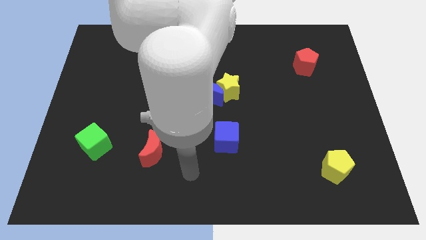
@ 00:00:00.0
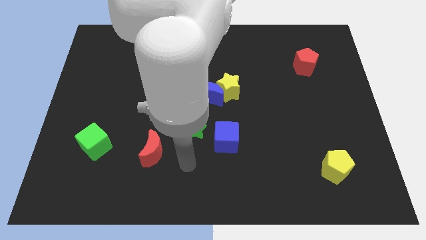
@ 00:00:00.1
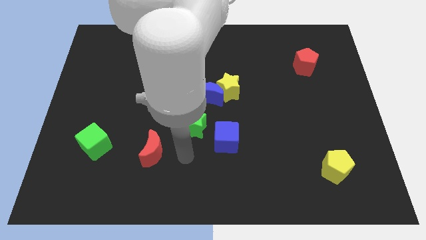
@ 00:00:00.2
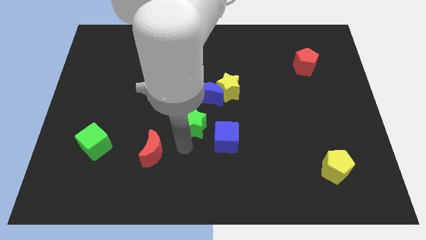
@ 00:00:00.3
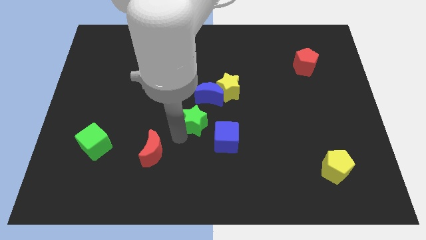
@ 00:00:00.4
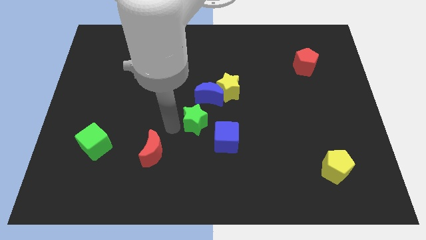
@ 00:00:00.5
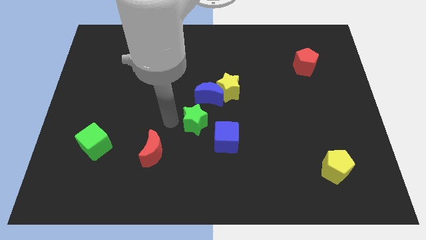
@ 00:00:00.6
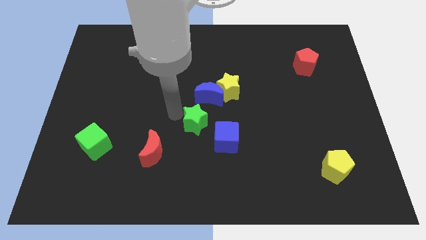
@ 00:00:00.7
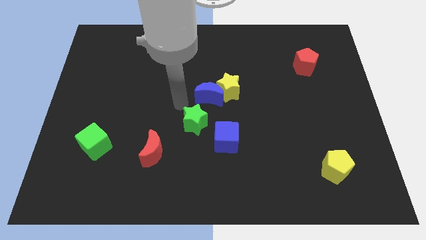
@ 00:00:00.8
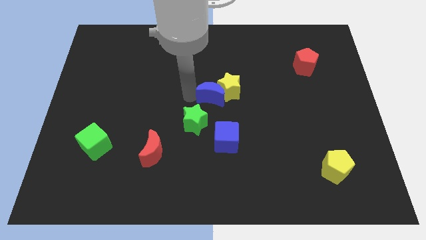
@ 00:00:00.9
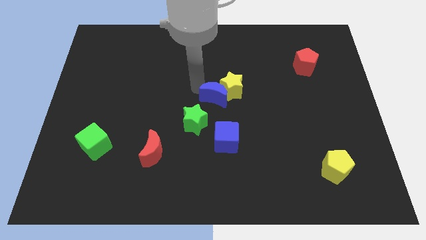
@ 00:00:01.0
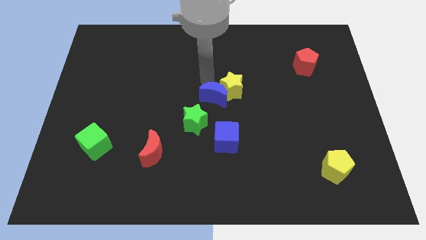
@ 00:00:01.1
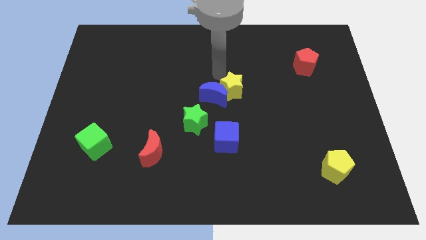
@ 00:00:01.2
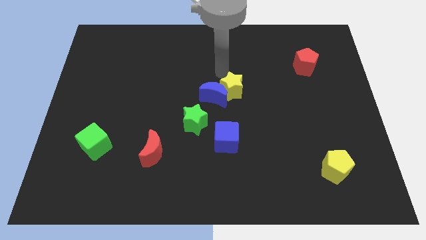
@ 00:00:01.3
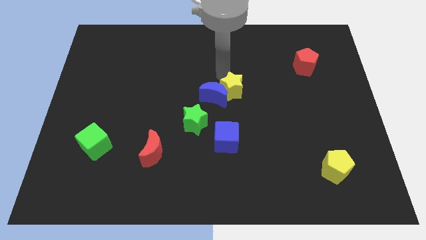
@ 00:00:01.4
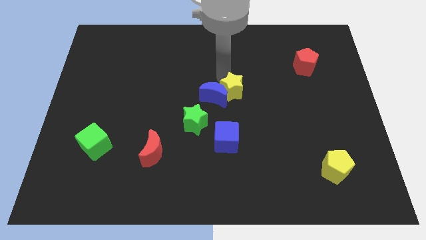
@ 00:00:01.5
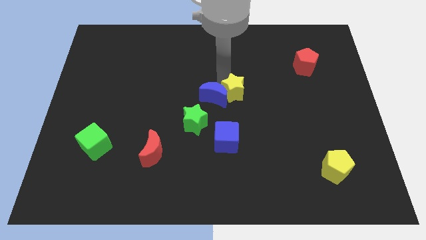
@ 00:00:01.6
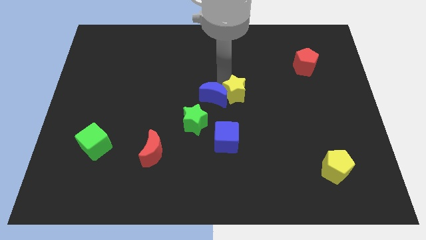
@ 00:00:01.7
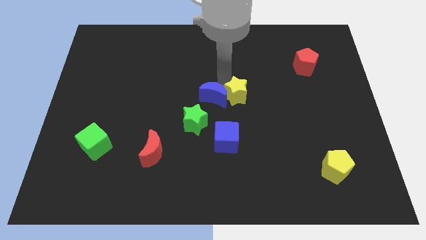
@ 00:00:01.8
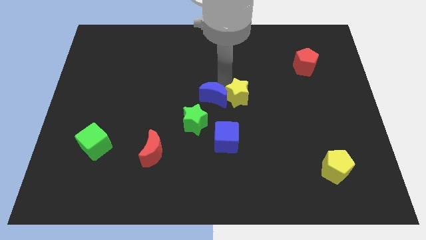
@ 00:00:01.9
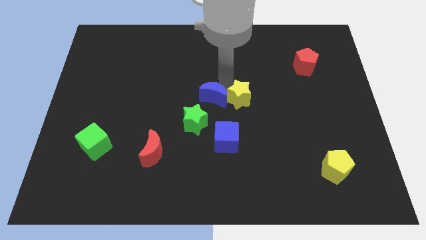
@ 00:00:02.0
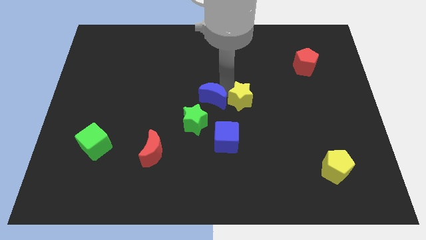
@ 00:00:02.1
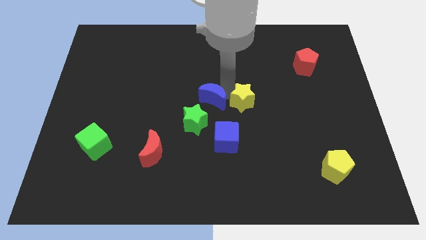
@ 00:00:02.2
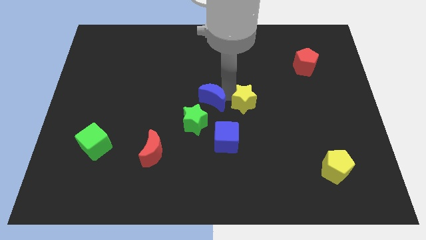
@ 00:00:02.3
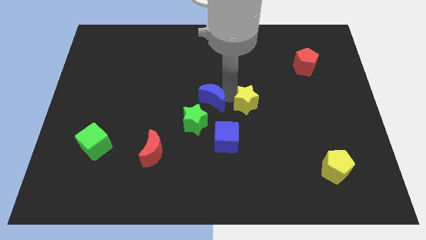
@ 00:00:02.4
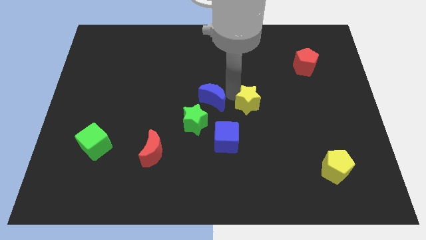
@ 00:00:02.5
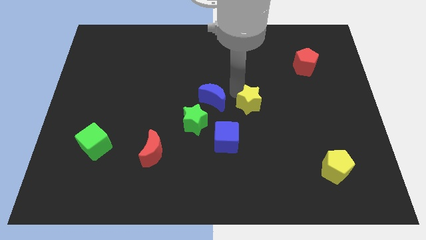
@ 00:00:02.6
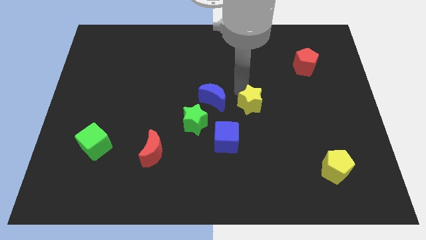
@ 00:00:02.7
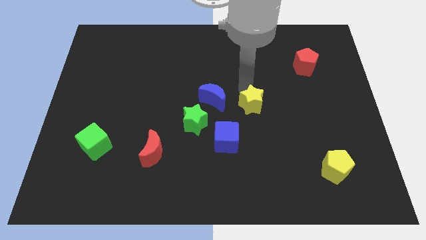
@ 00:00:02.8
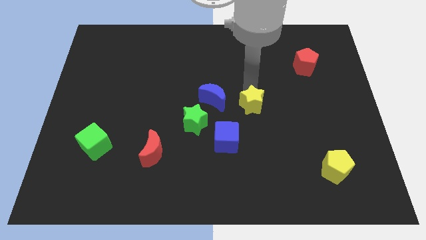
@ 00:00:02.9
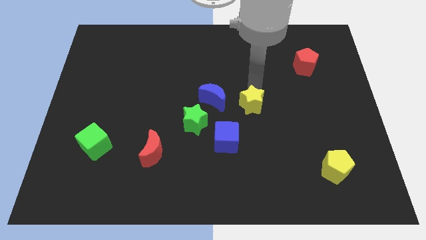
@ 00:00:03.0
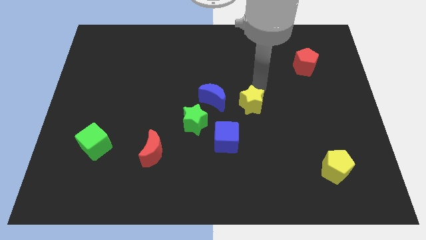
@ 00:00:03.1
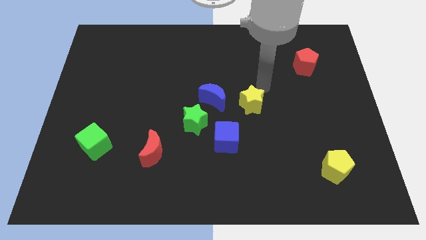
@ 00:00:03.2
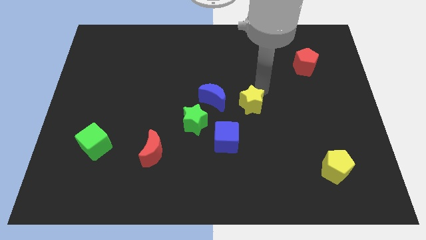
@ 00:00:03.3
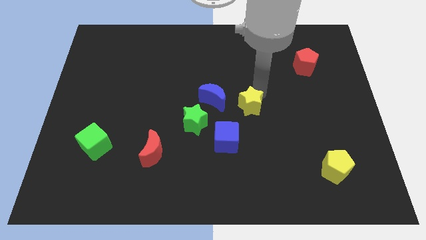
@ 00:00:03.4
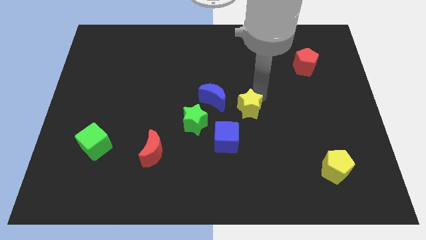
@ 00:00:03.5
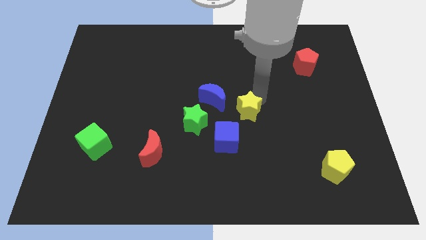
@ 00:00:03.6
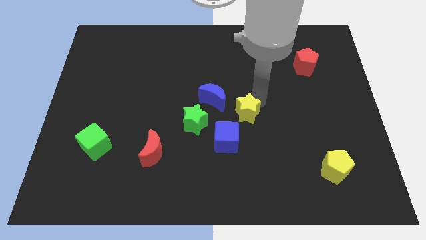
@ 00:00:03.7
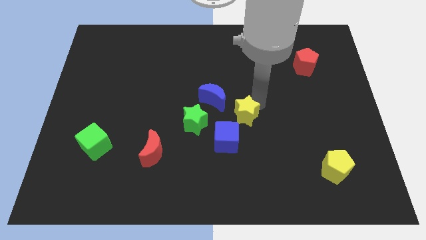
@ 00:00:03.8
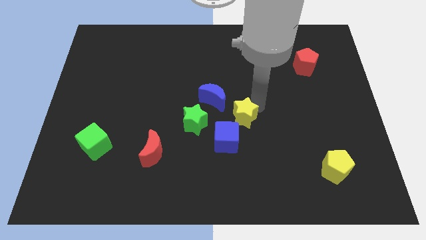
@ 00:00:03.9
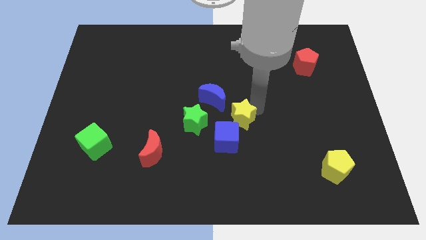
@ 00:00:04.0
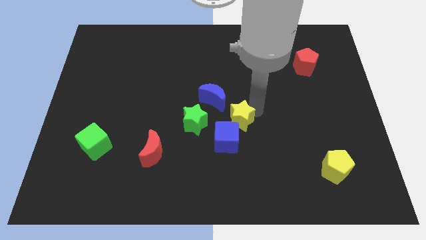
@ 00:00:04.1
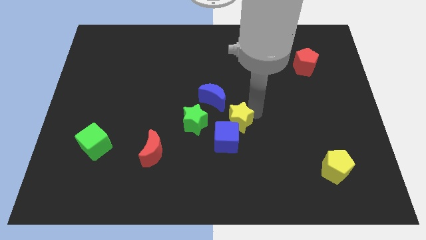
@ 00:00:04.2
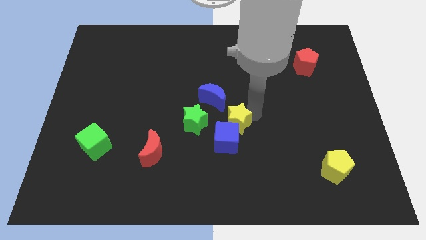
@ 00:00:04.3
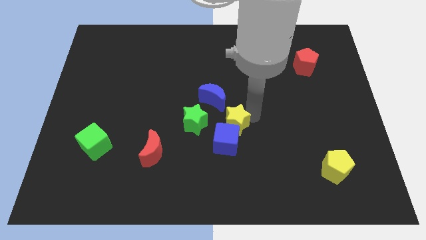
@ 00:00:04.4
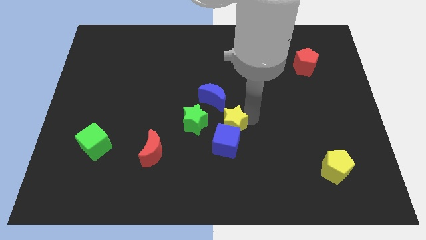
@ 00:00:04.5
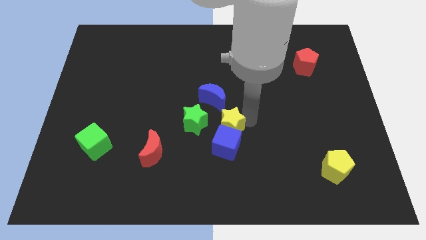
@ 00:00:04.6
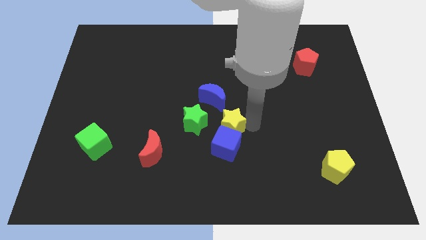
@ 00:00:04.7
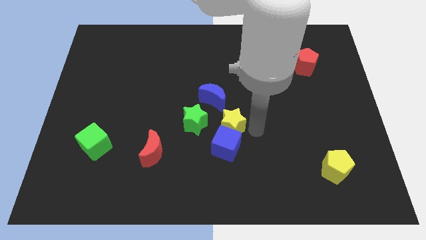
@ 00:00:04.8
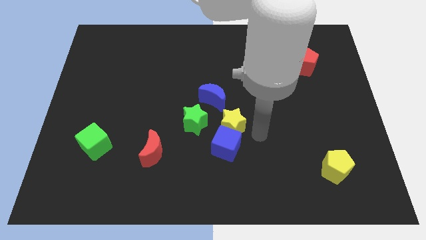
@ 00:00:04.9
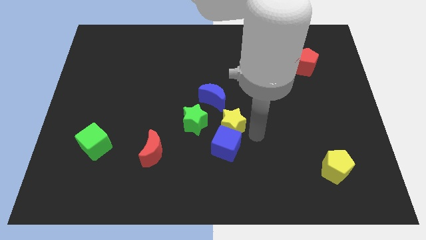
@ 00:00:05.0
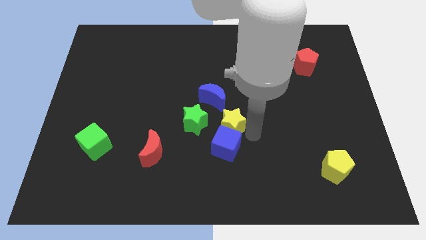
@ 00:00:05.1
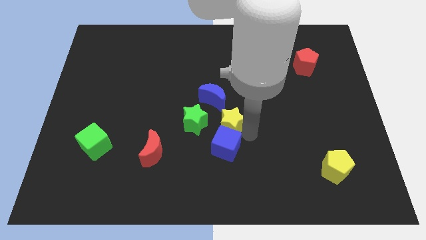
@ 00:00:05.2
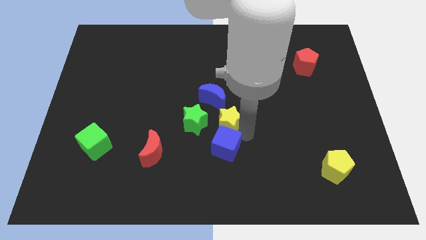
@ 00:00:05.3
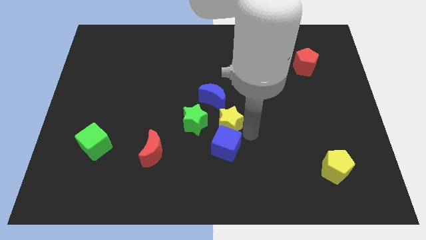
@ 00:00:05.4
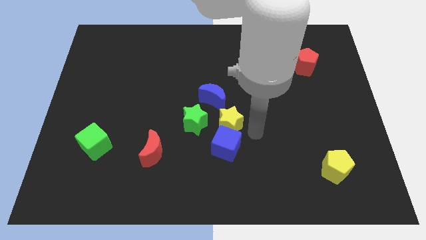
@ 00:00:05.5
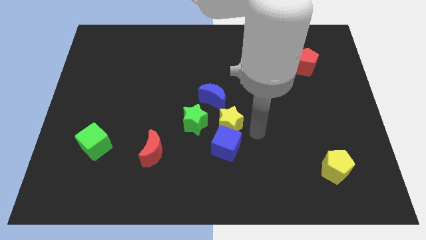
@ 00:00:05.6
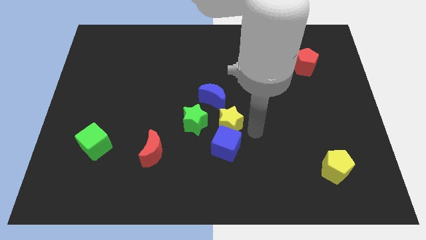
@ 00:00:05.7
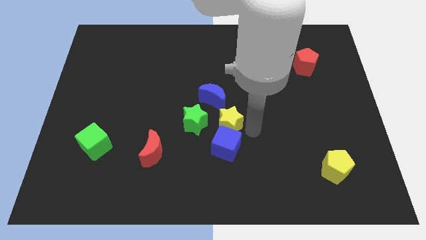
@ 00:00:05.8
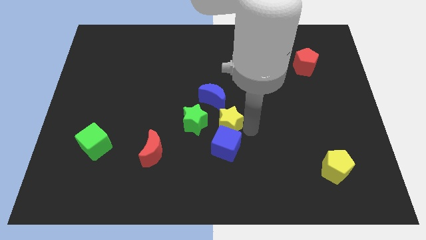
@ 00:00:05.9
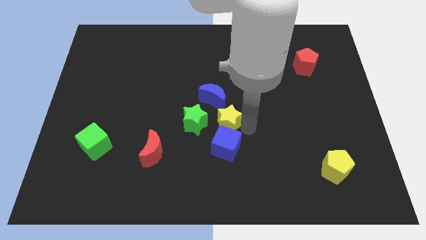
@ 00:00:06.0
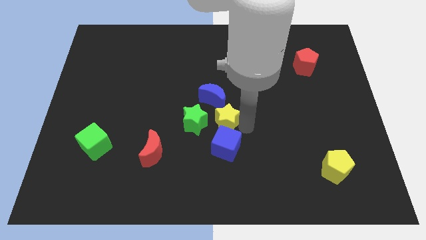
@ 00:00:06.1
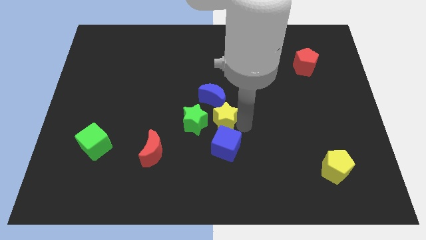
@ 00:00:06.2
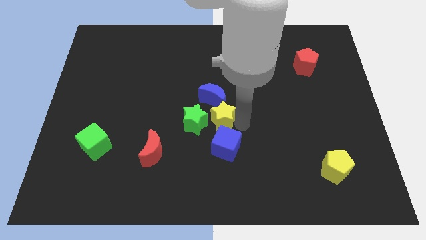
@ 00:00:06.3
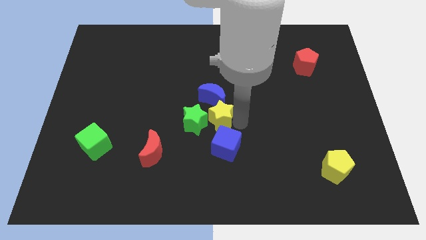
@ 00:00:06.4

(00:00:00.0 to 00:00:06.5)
slide the yellow star next to the green star

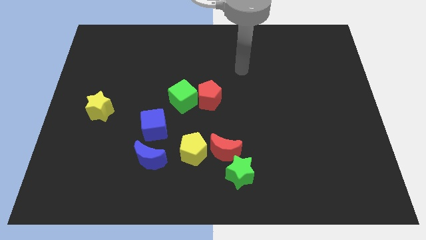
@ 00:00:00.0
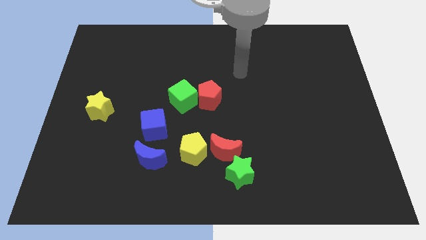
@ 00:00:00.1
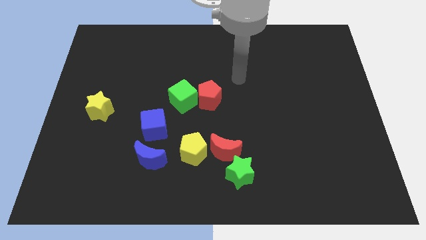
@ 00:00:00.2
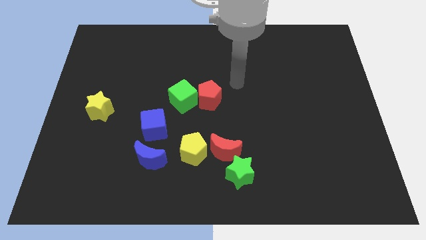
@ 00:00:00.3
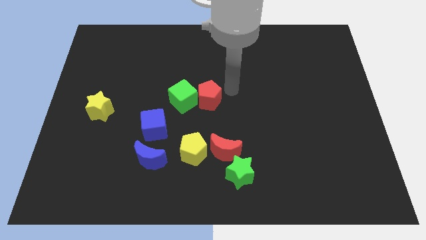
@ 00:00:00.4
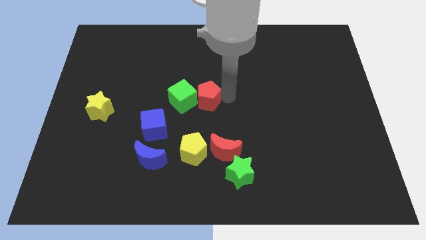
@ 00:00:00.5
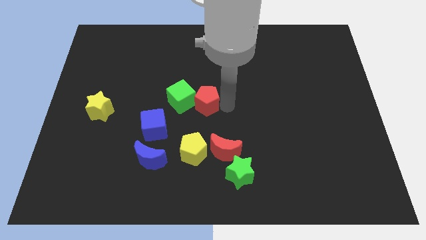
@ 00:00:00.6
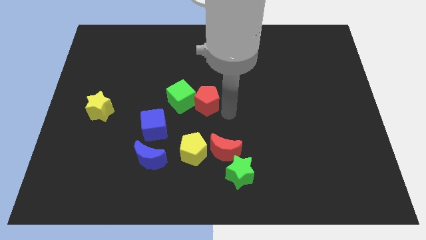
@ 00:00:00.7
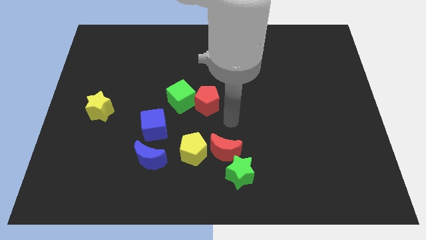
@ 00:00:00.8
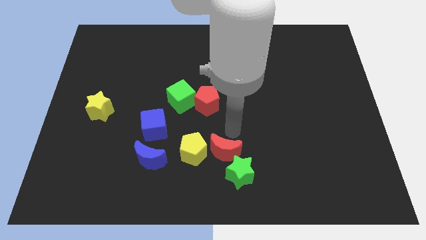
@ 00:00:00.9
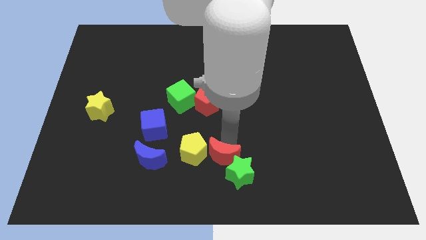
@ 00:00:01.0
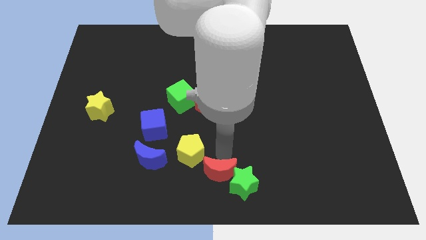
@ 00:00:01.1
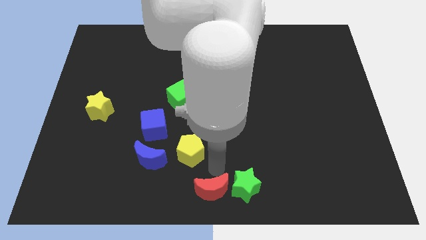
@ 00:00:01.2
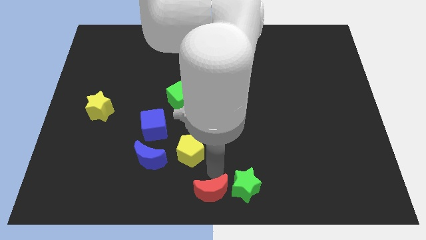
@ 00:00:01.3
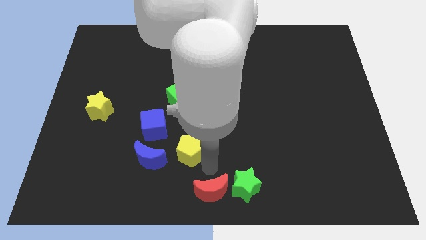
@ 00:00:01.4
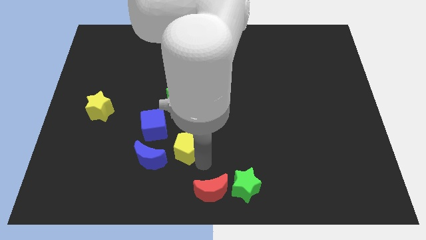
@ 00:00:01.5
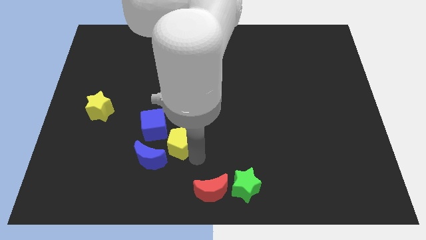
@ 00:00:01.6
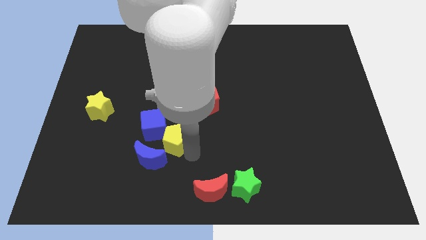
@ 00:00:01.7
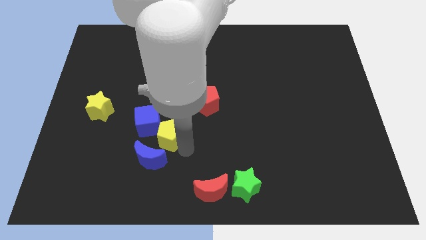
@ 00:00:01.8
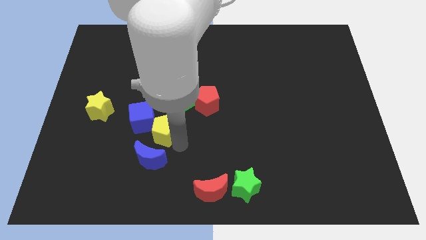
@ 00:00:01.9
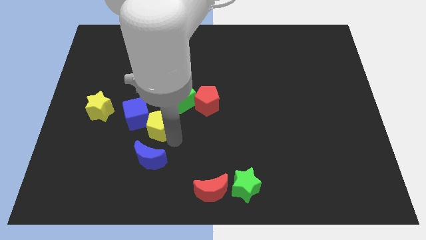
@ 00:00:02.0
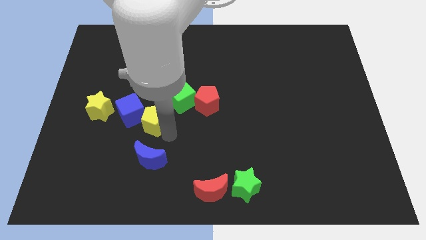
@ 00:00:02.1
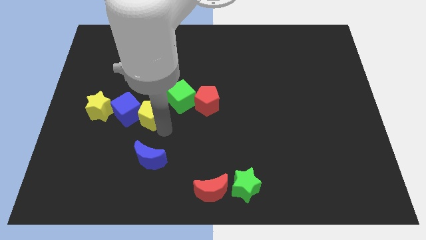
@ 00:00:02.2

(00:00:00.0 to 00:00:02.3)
slide the yellow pentagon next to the blue cube
